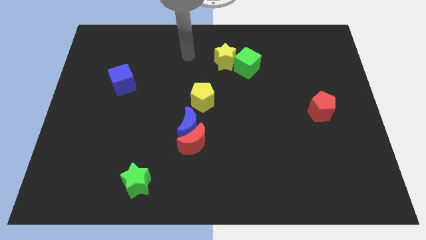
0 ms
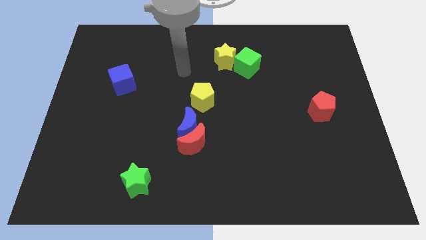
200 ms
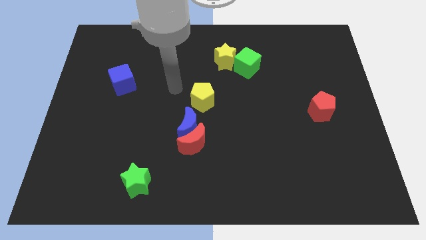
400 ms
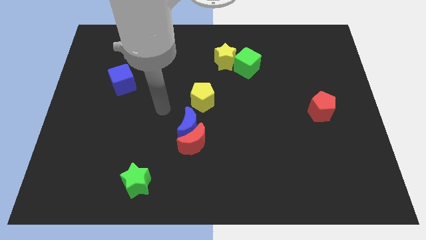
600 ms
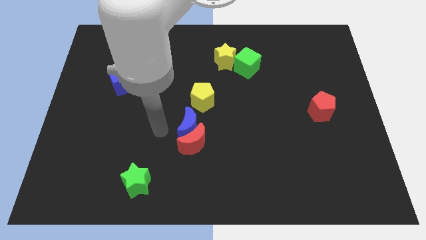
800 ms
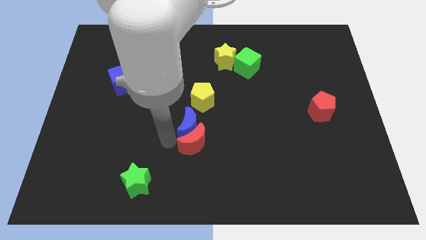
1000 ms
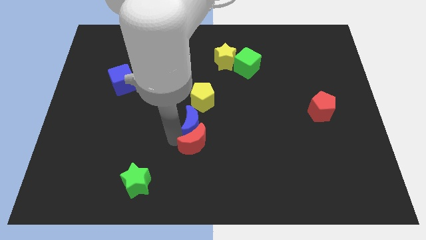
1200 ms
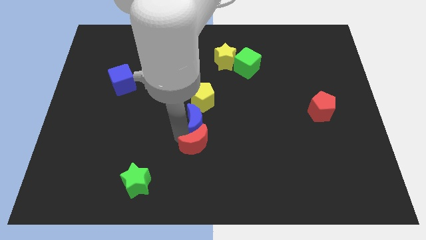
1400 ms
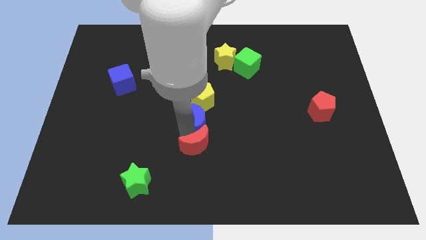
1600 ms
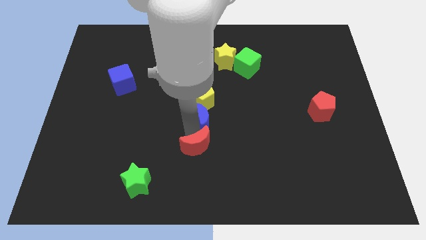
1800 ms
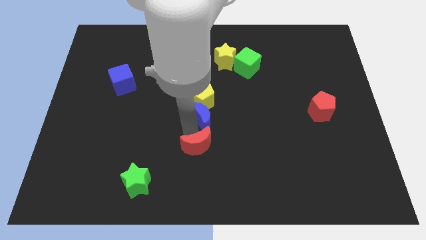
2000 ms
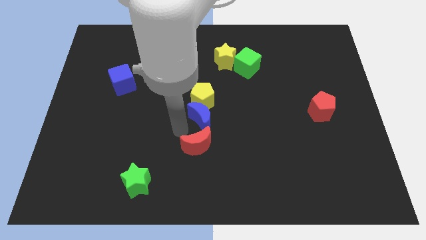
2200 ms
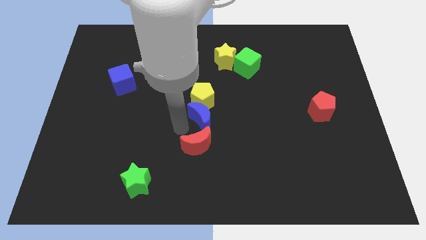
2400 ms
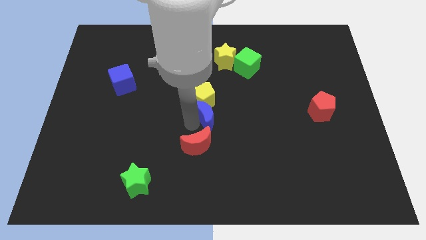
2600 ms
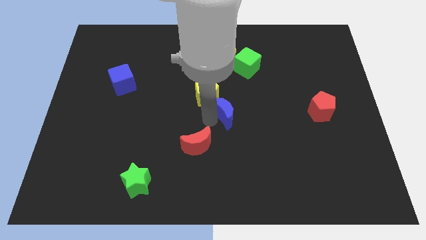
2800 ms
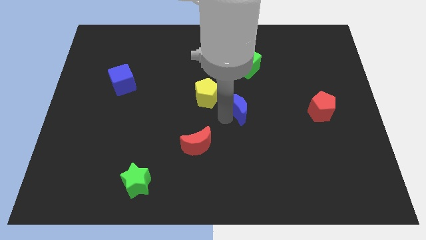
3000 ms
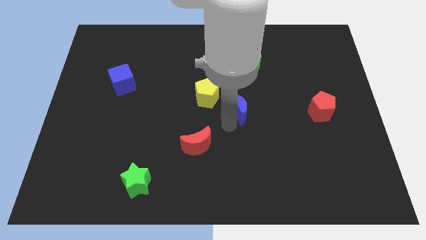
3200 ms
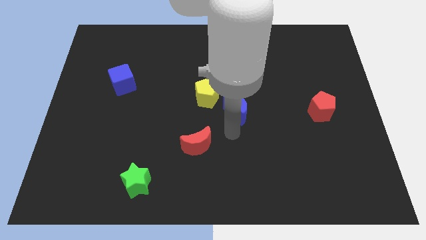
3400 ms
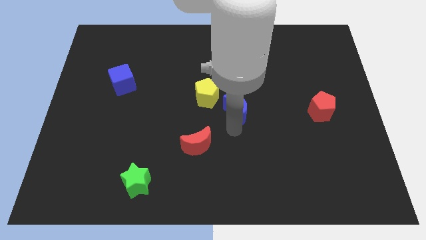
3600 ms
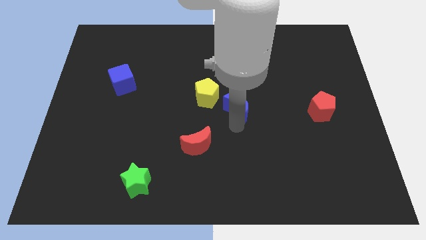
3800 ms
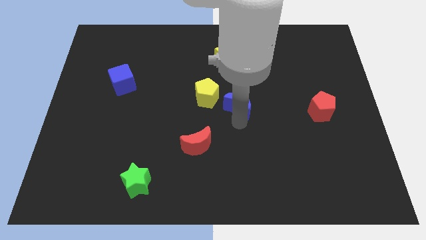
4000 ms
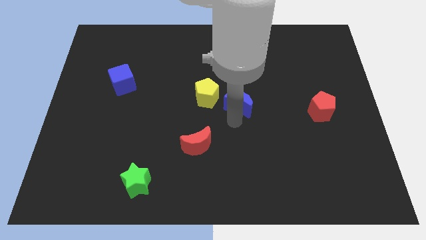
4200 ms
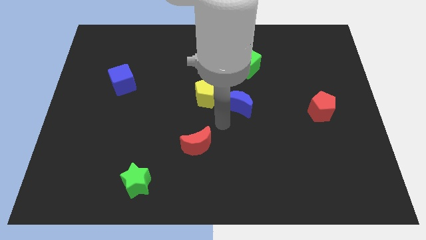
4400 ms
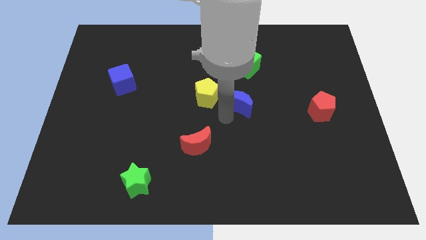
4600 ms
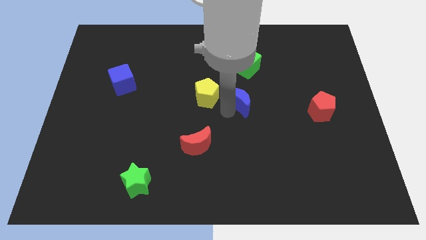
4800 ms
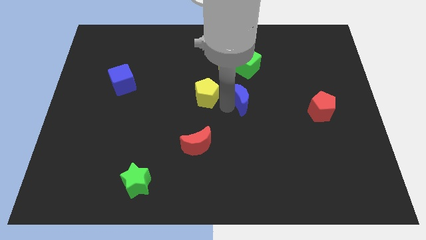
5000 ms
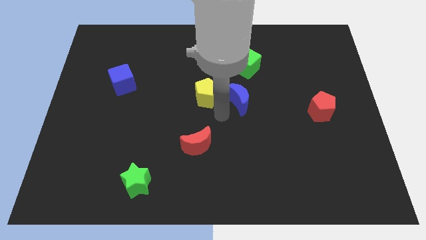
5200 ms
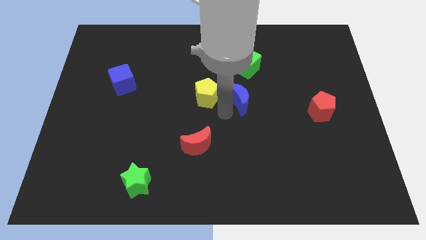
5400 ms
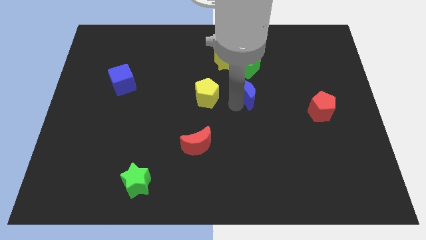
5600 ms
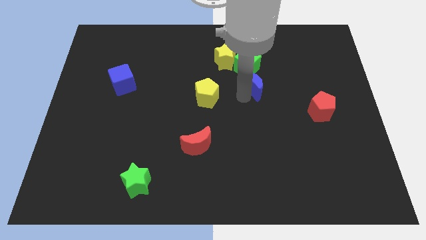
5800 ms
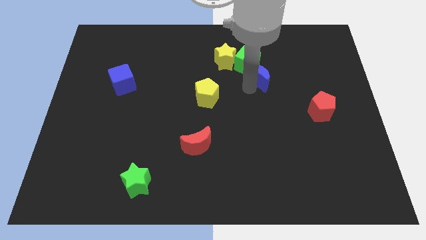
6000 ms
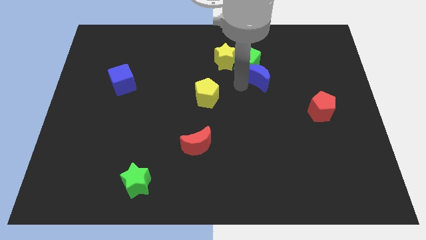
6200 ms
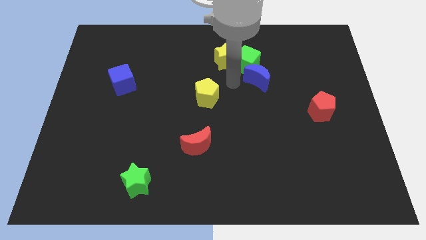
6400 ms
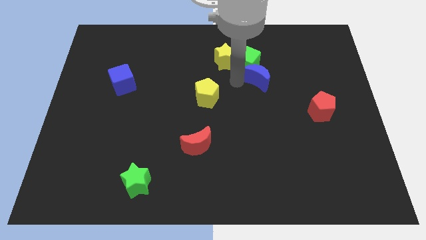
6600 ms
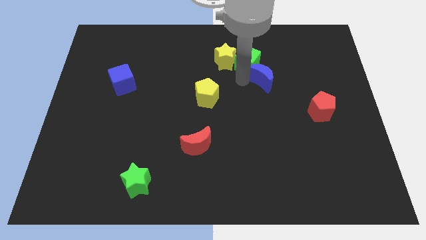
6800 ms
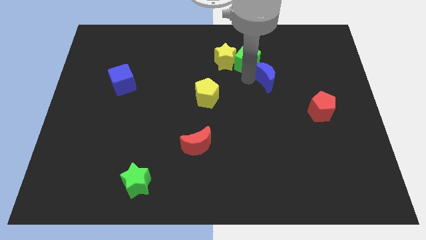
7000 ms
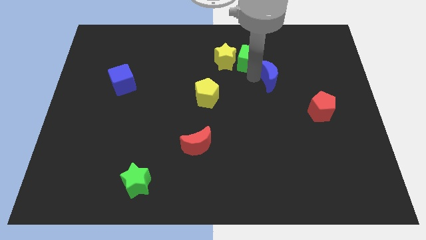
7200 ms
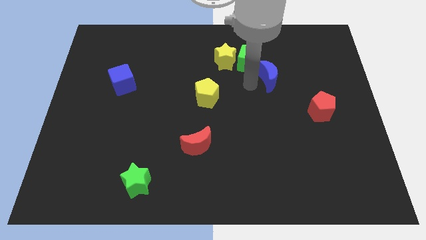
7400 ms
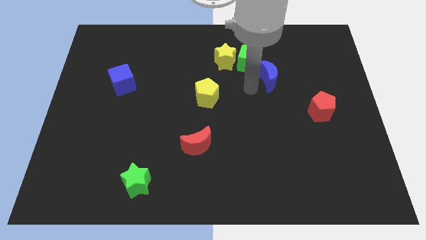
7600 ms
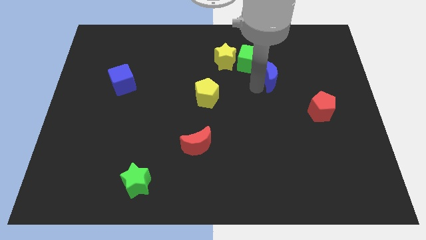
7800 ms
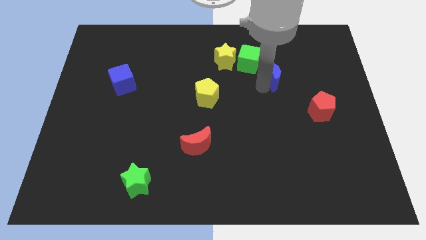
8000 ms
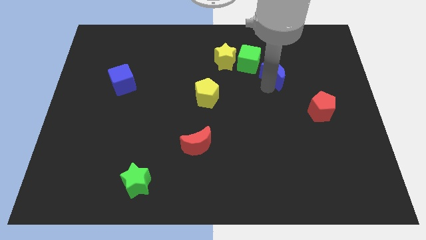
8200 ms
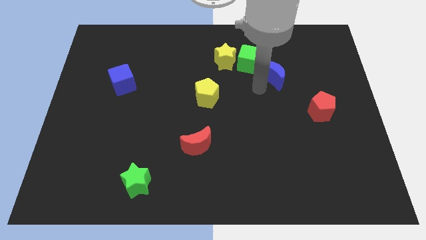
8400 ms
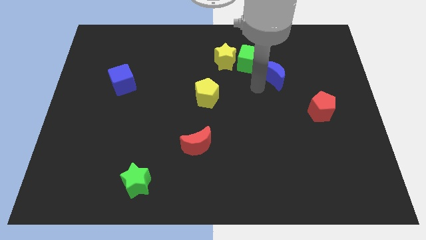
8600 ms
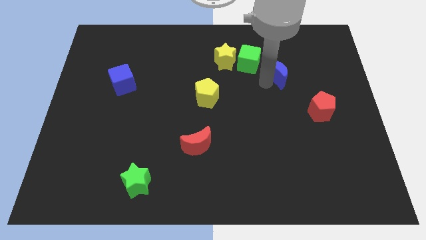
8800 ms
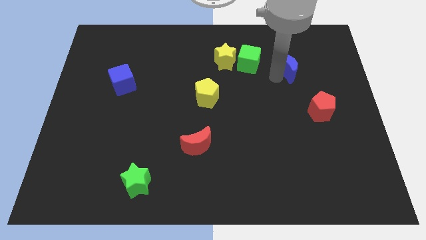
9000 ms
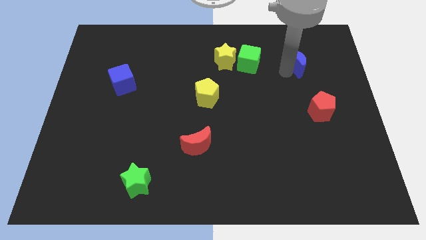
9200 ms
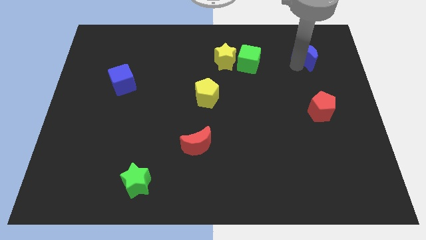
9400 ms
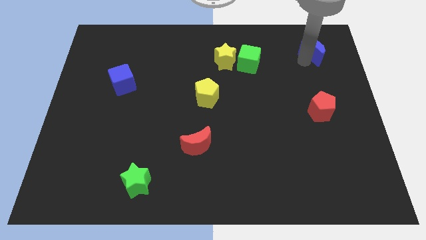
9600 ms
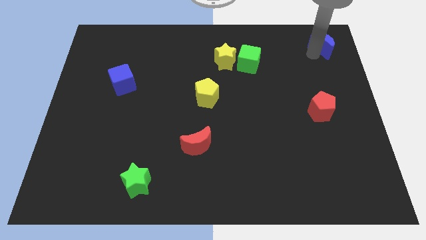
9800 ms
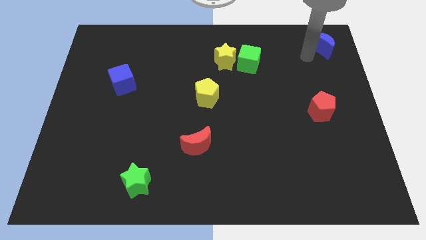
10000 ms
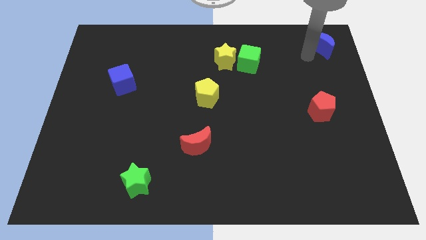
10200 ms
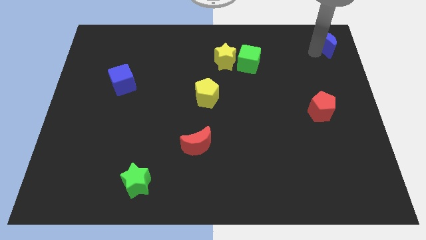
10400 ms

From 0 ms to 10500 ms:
slide the blue moon to the top right of the board

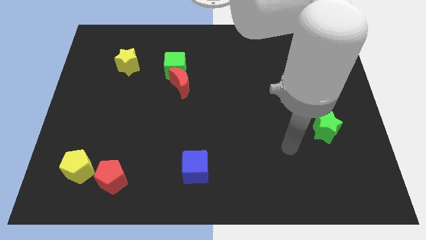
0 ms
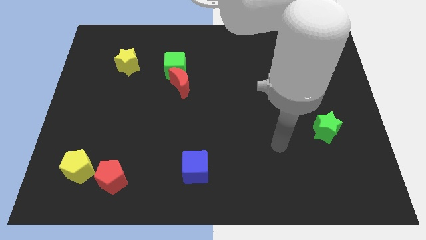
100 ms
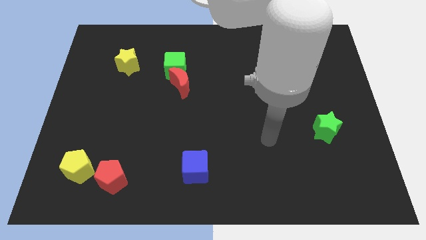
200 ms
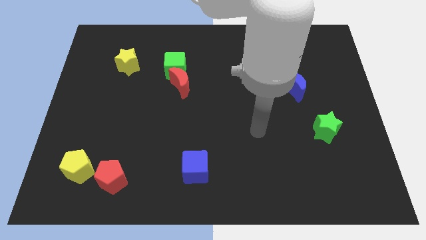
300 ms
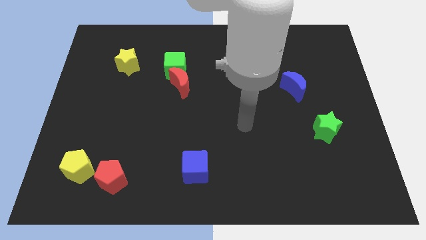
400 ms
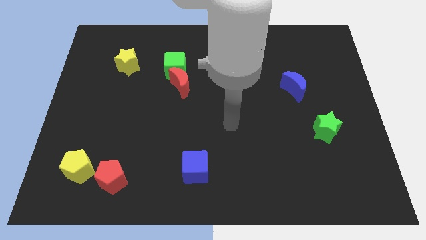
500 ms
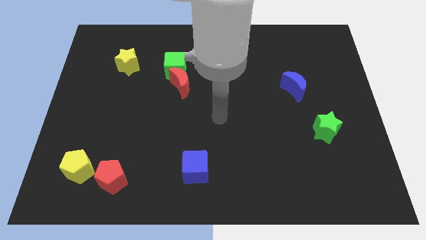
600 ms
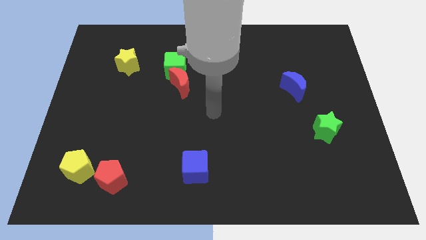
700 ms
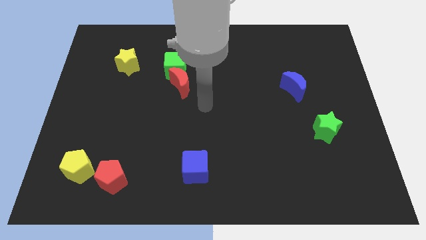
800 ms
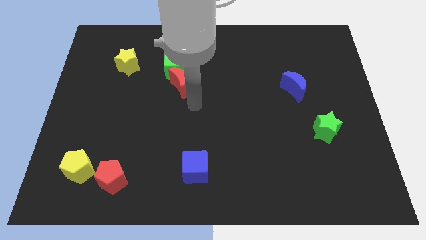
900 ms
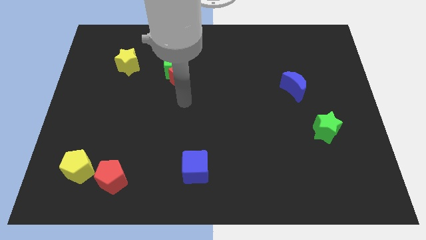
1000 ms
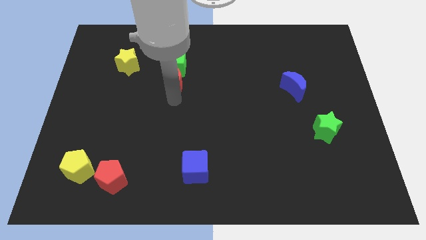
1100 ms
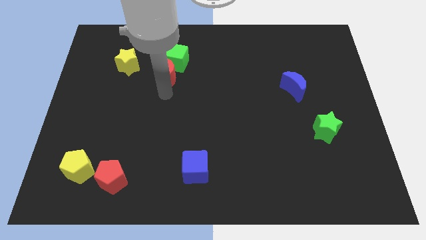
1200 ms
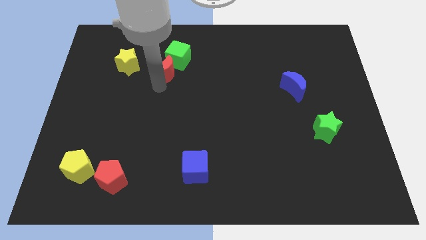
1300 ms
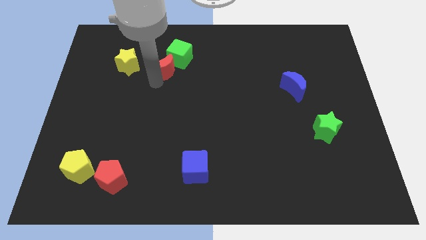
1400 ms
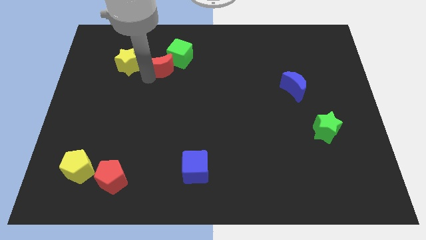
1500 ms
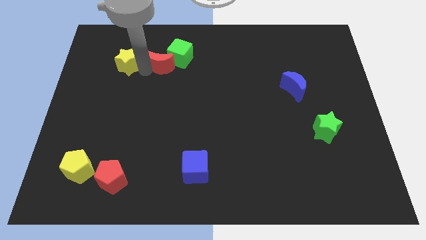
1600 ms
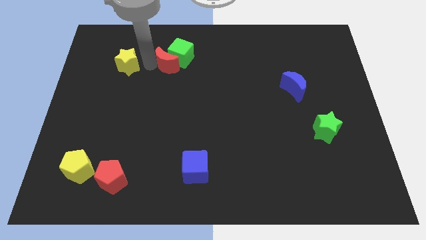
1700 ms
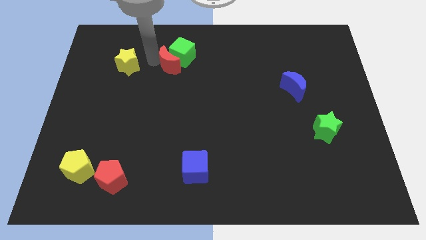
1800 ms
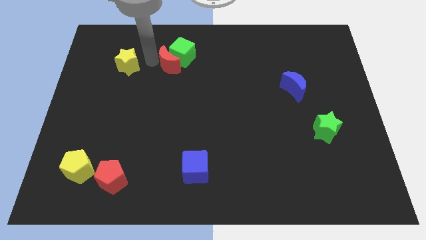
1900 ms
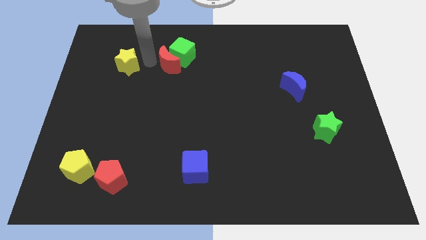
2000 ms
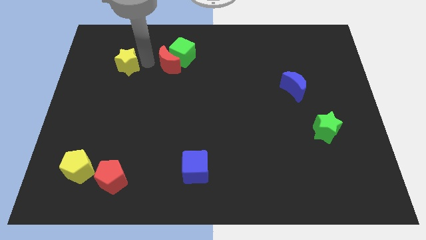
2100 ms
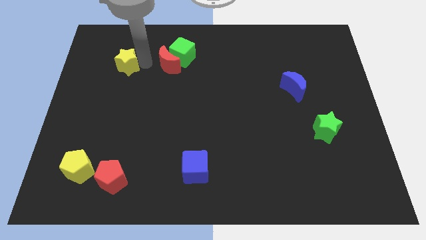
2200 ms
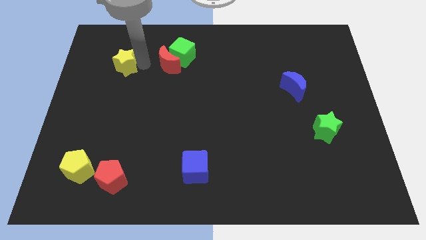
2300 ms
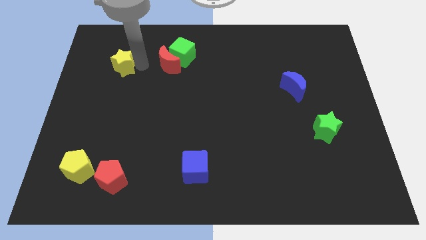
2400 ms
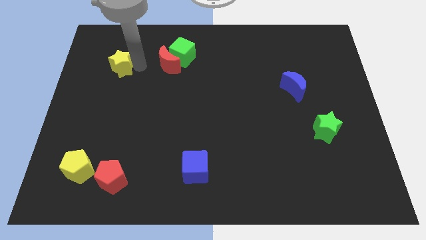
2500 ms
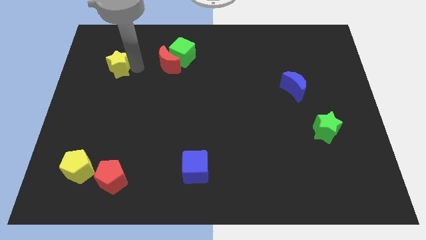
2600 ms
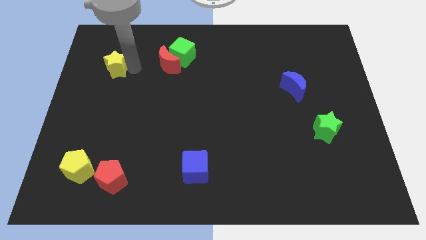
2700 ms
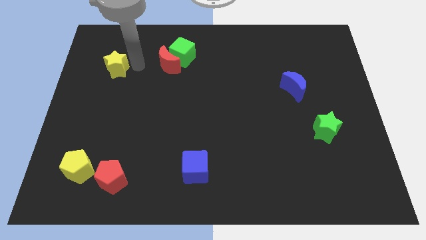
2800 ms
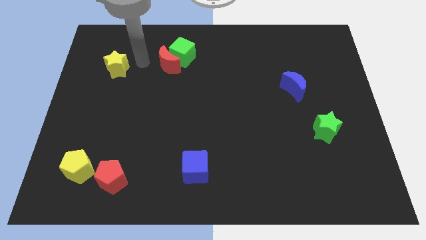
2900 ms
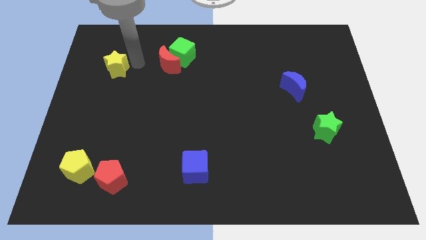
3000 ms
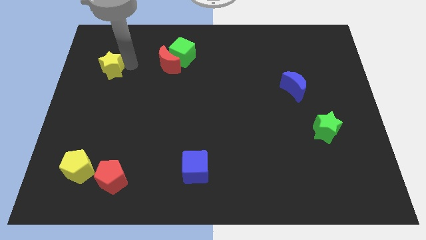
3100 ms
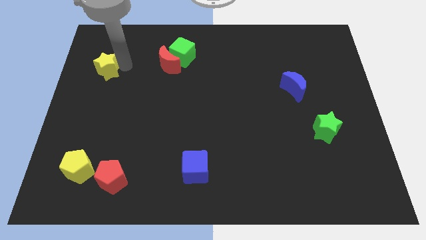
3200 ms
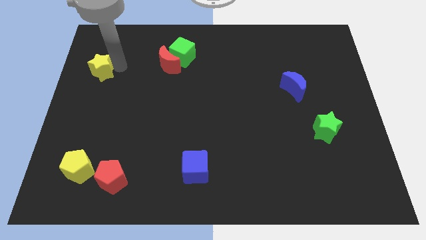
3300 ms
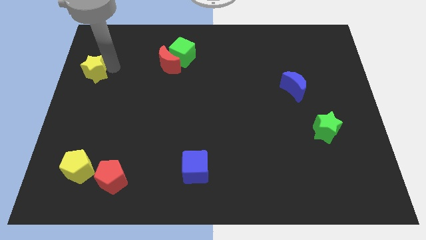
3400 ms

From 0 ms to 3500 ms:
slide the yellow star to the center left
